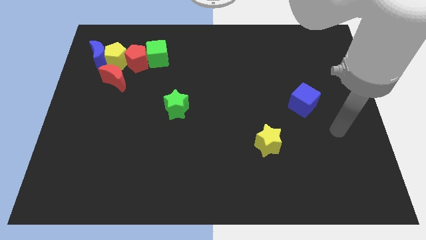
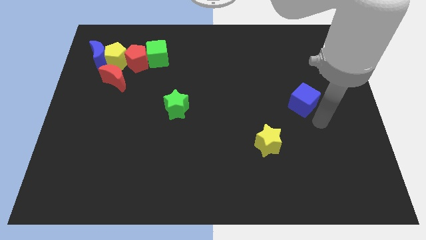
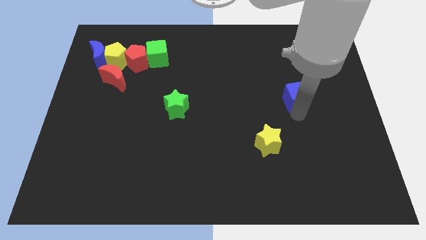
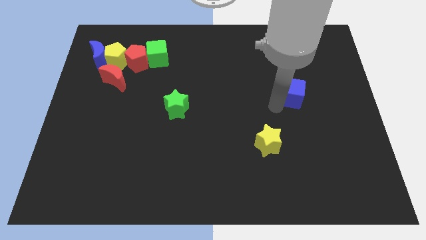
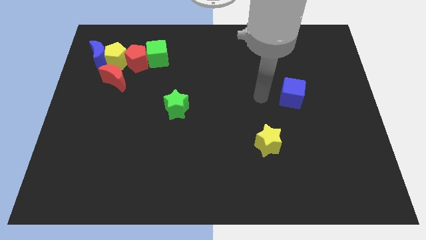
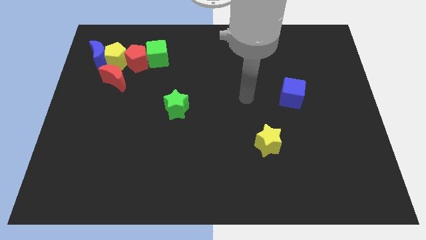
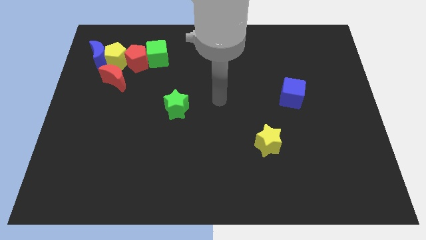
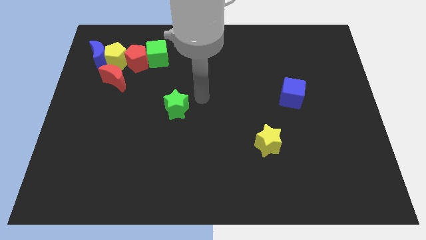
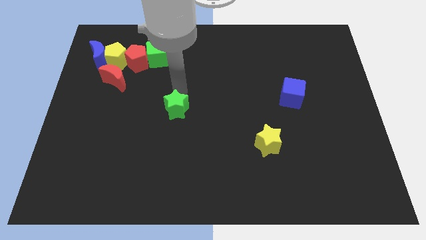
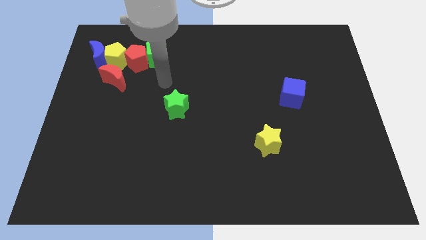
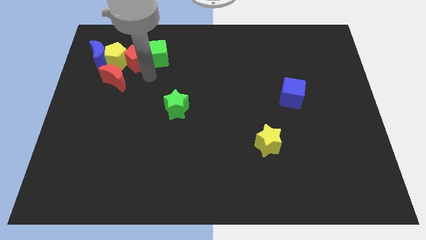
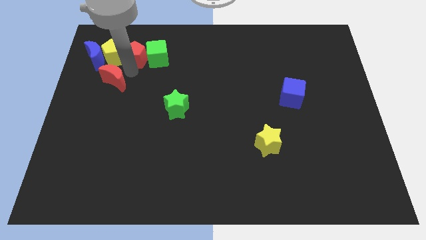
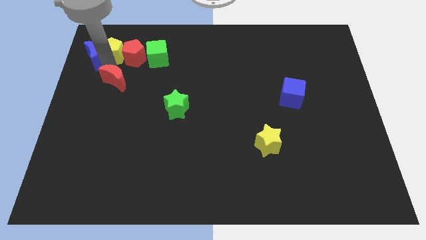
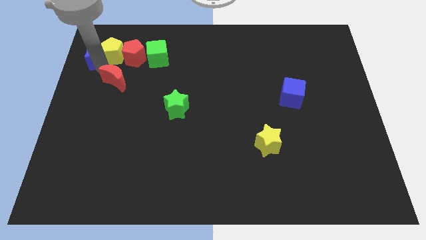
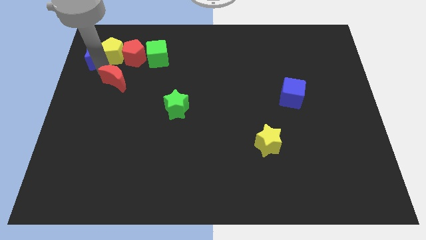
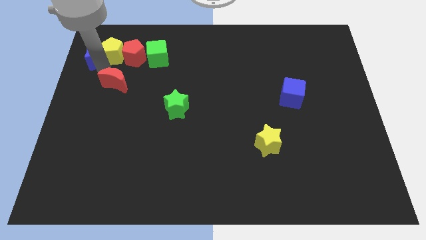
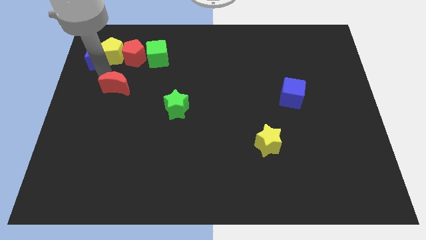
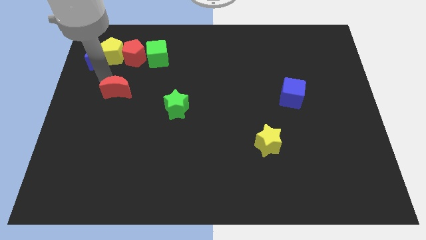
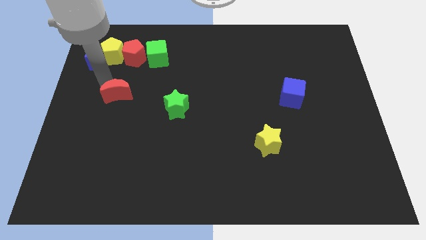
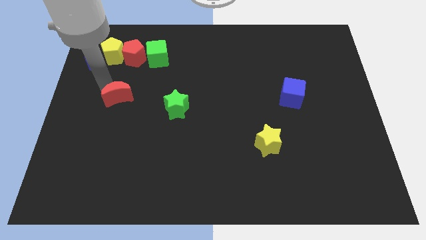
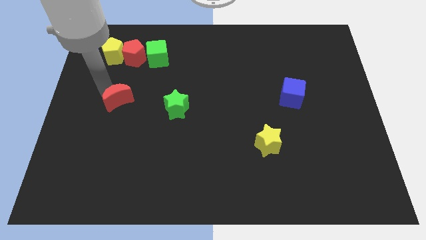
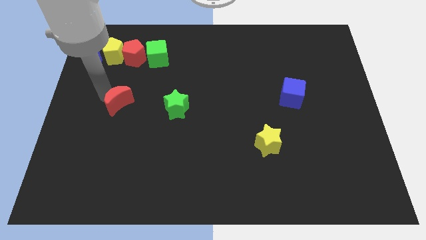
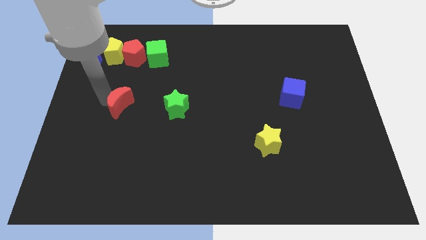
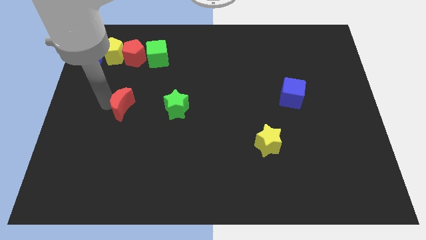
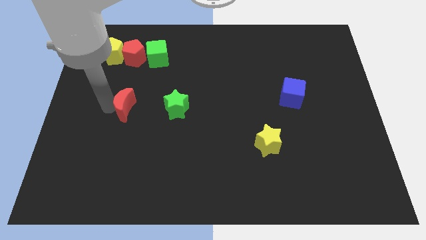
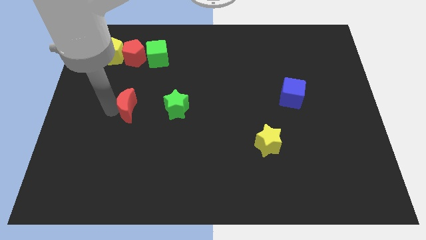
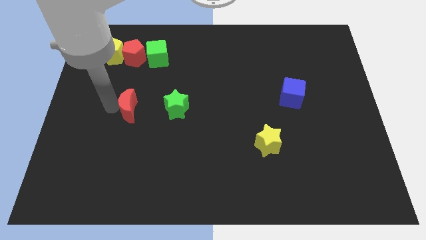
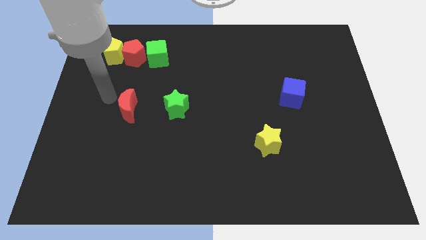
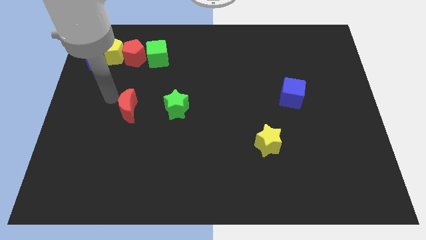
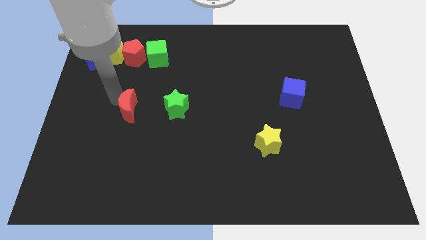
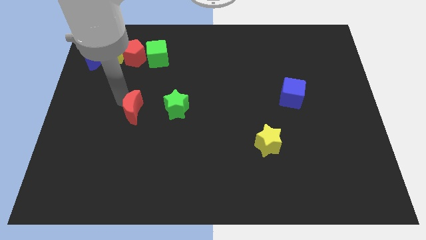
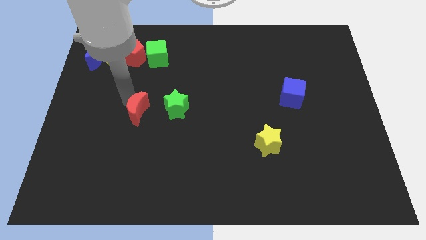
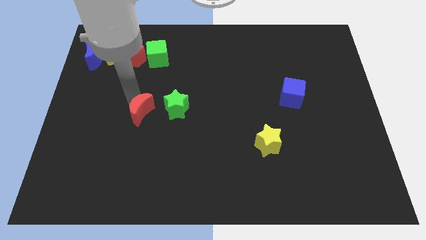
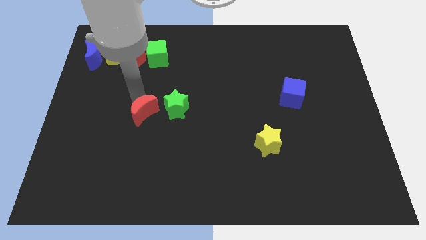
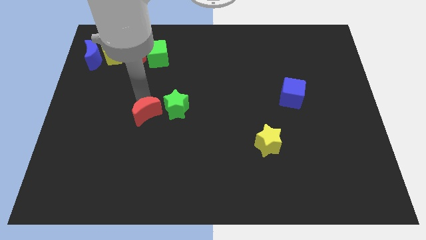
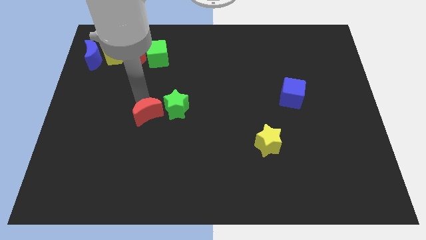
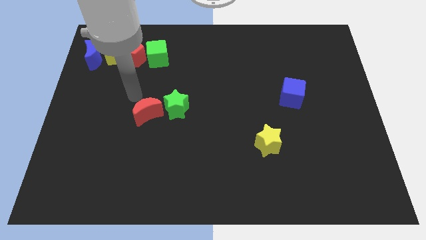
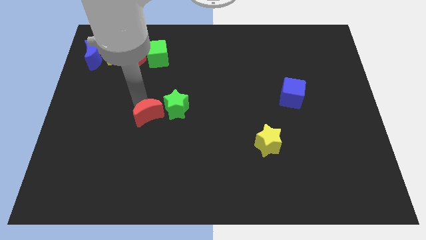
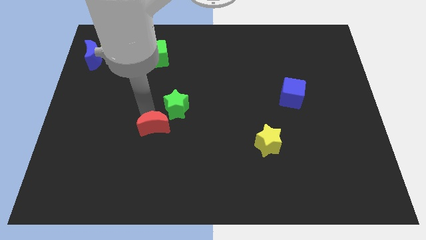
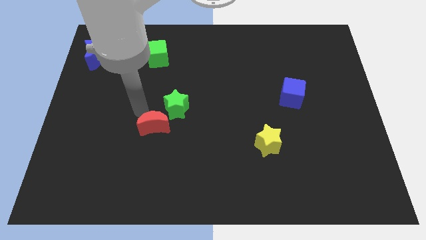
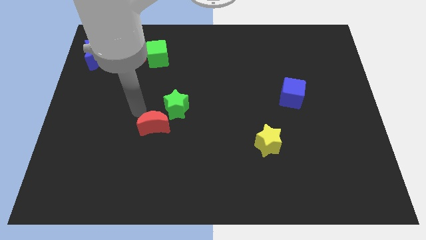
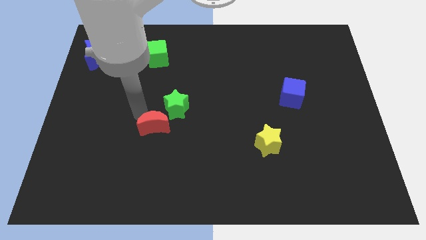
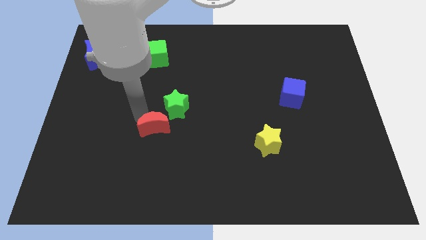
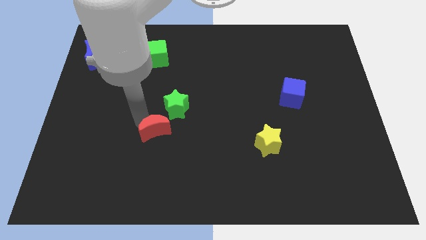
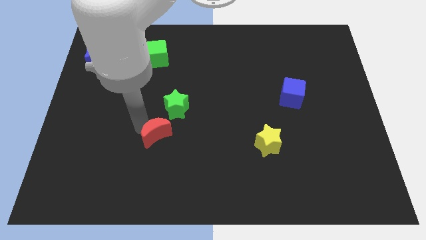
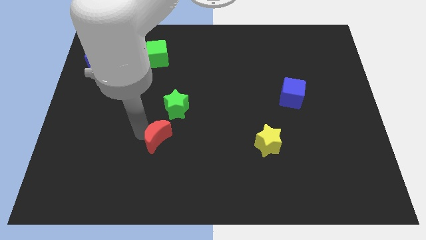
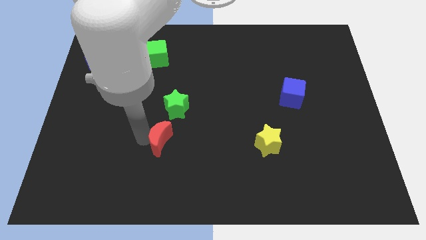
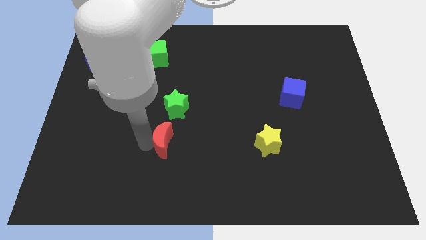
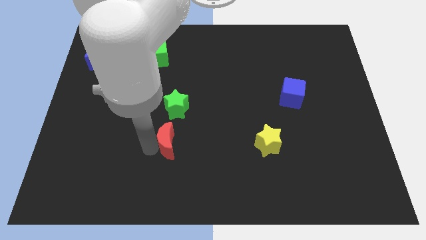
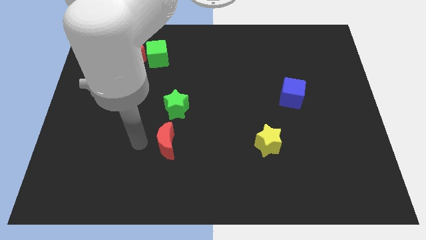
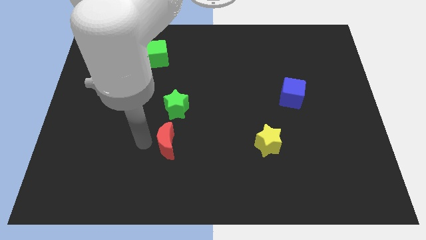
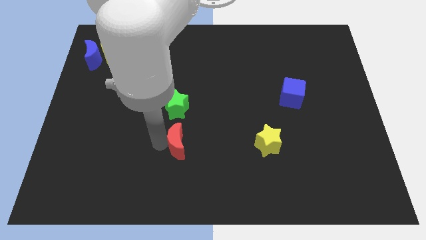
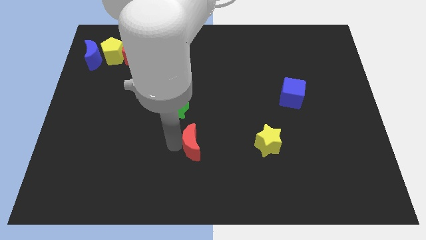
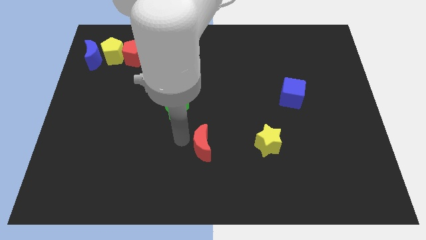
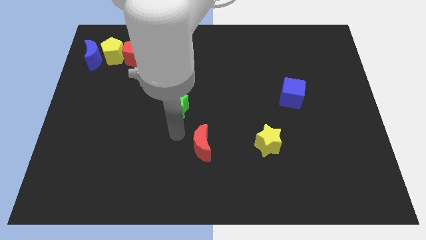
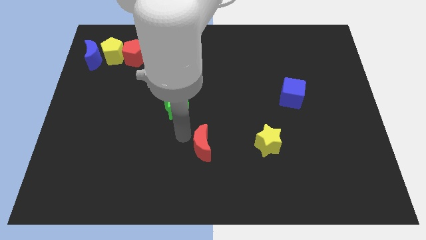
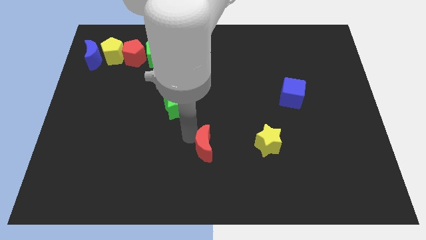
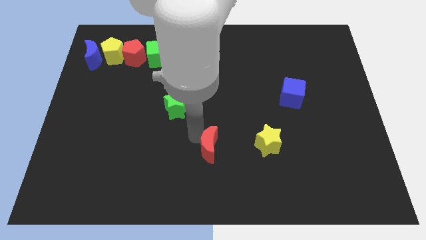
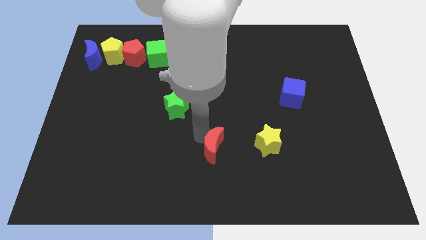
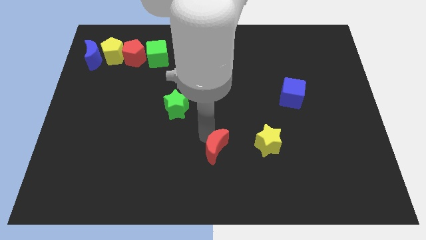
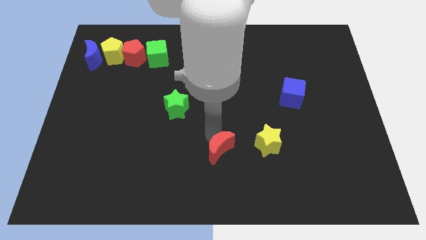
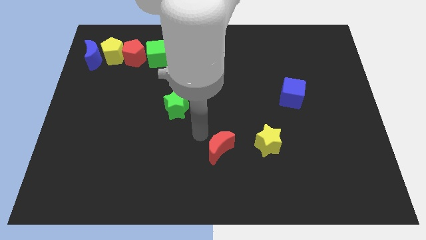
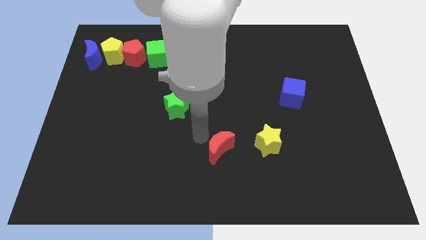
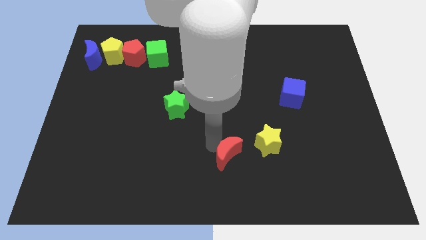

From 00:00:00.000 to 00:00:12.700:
push the red moon diagonally down and to the left of the yellow star
